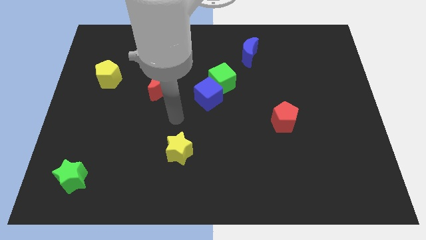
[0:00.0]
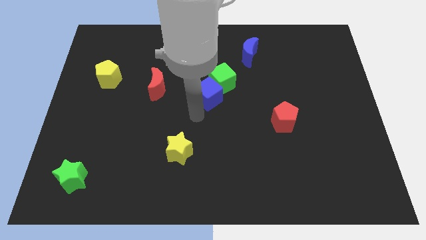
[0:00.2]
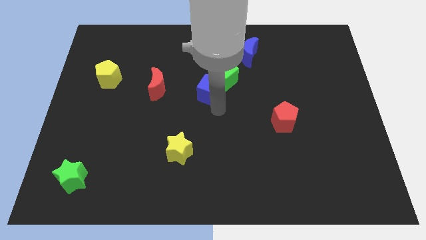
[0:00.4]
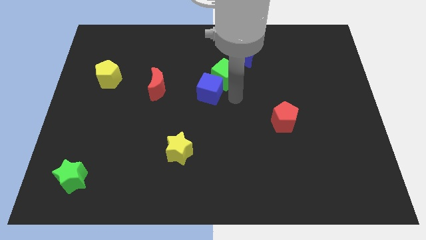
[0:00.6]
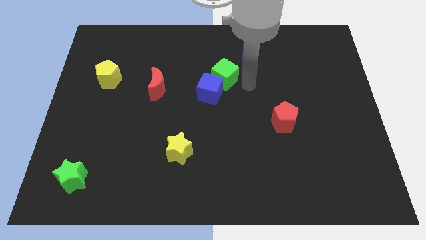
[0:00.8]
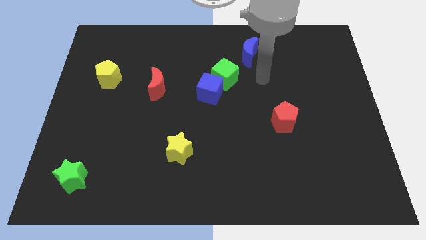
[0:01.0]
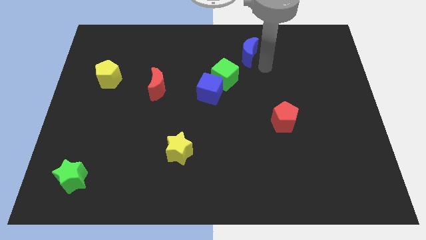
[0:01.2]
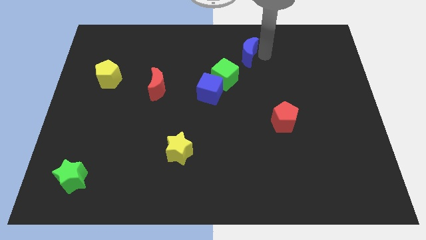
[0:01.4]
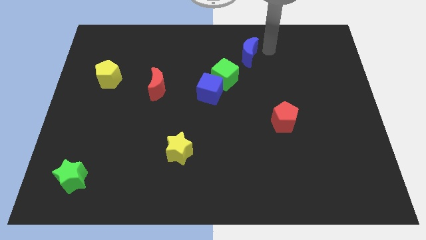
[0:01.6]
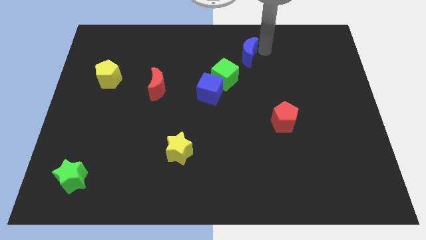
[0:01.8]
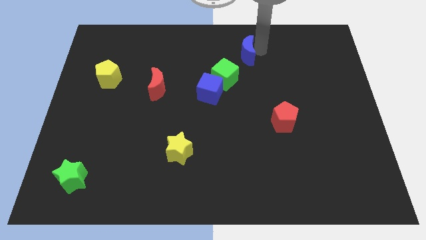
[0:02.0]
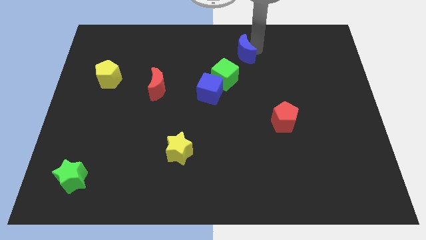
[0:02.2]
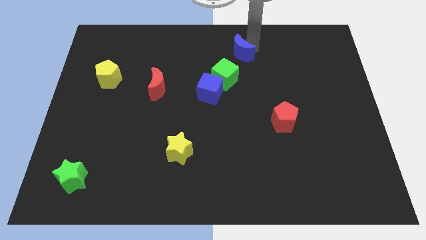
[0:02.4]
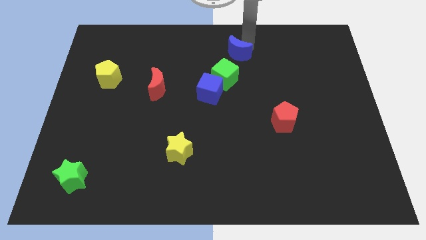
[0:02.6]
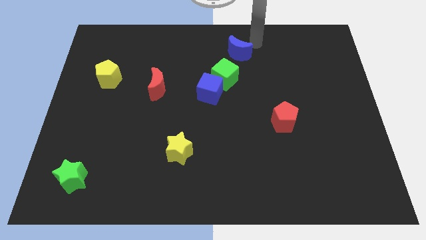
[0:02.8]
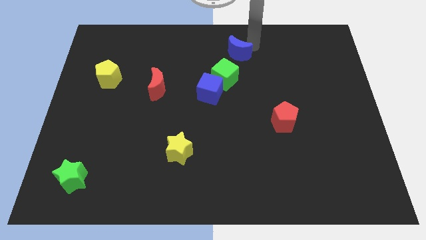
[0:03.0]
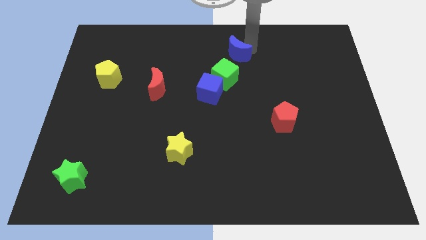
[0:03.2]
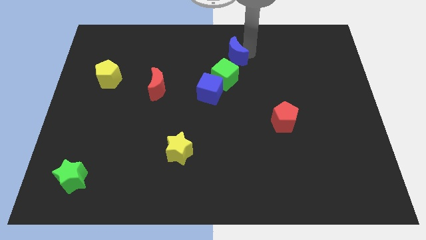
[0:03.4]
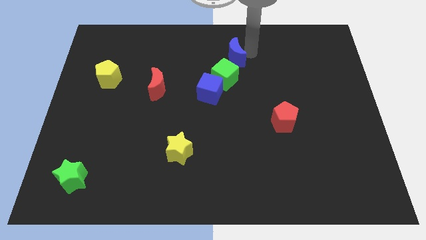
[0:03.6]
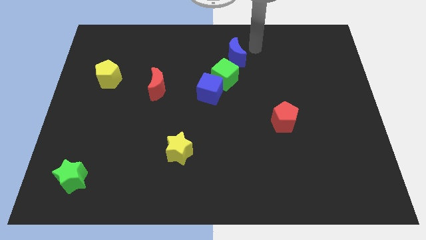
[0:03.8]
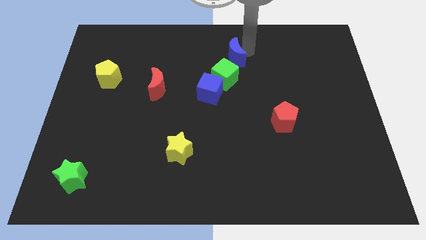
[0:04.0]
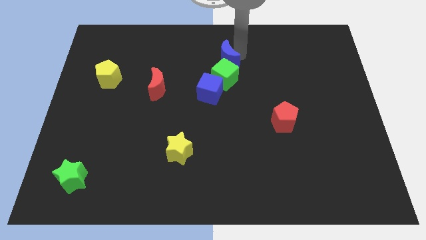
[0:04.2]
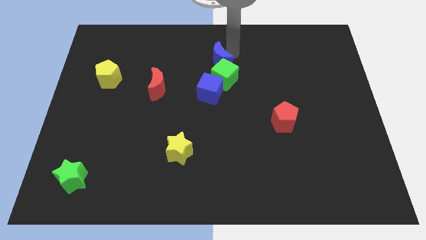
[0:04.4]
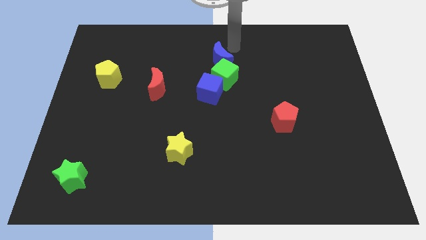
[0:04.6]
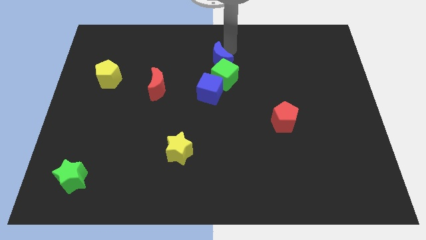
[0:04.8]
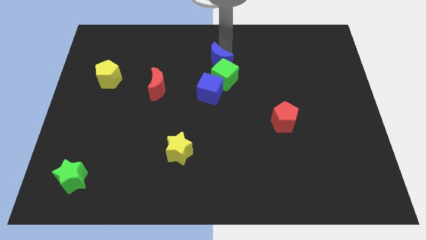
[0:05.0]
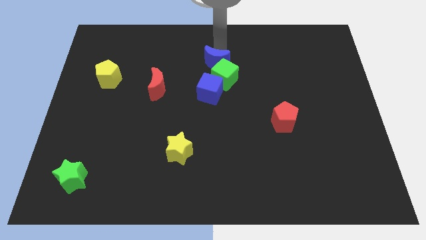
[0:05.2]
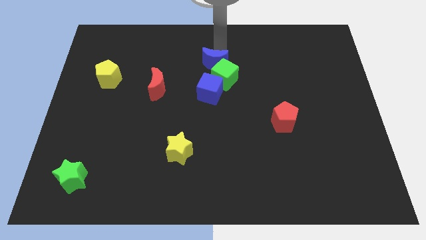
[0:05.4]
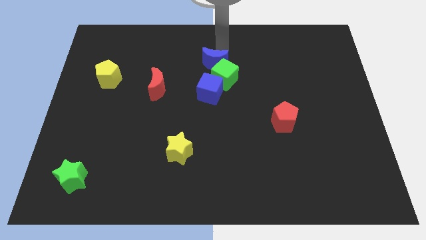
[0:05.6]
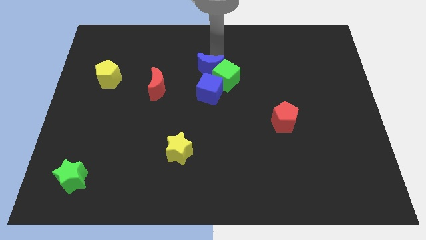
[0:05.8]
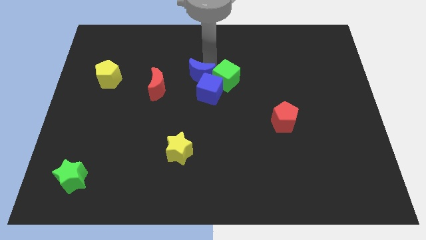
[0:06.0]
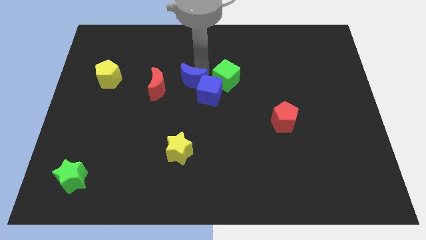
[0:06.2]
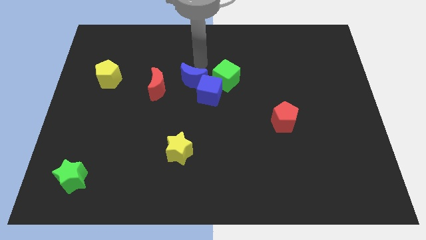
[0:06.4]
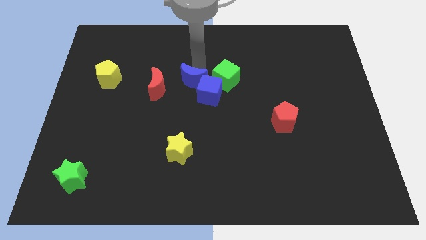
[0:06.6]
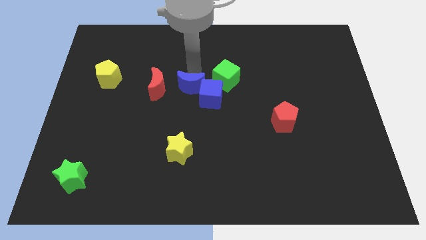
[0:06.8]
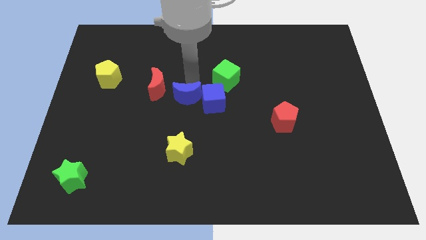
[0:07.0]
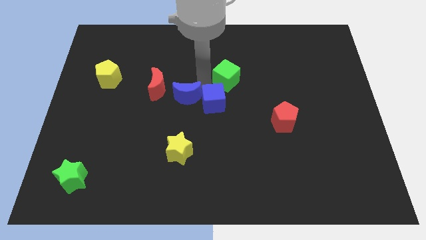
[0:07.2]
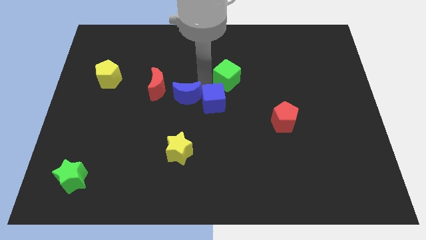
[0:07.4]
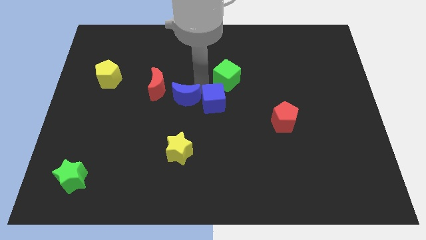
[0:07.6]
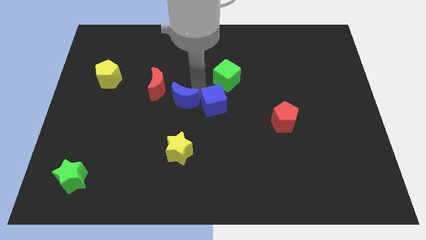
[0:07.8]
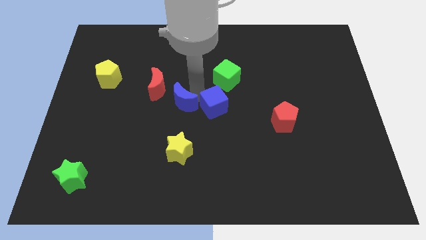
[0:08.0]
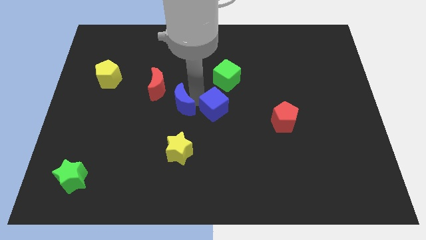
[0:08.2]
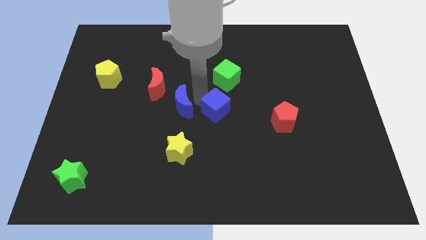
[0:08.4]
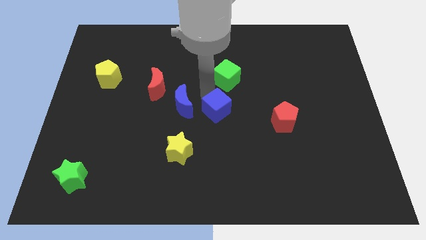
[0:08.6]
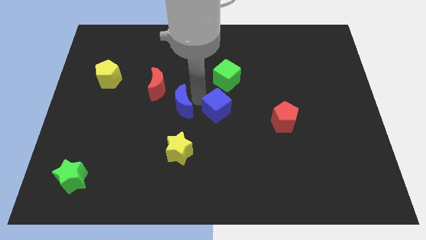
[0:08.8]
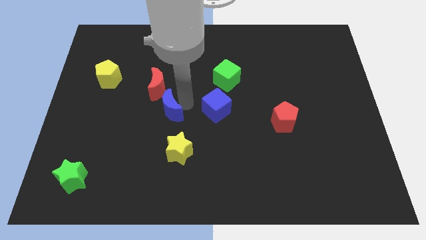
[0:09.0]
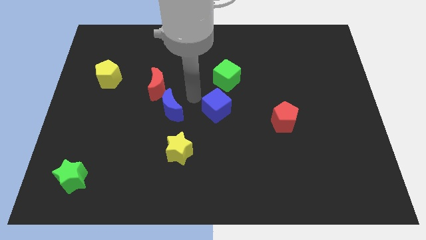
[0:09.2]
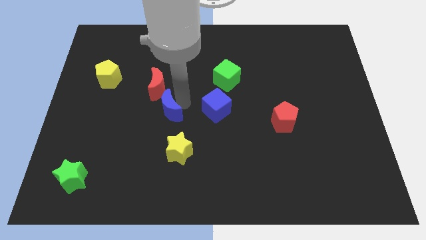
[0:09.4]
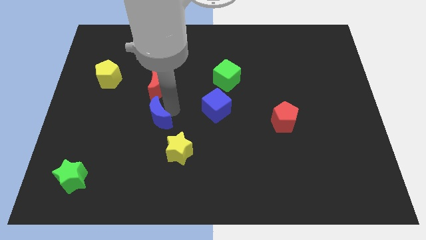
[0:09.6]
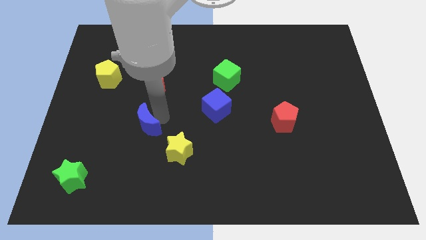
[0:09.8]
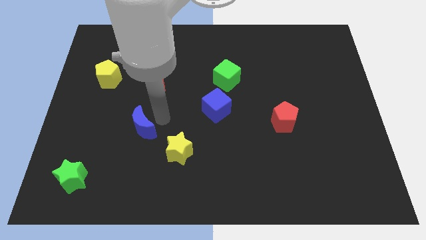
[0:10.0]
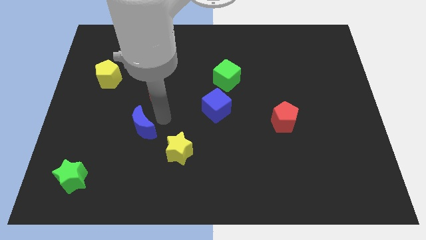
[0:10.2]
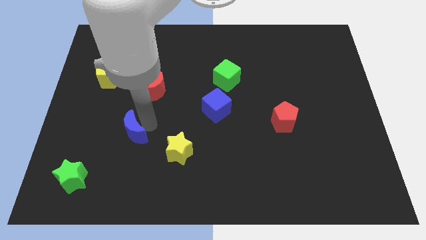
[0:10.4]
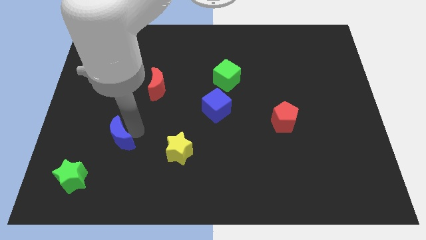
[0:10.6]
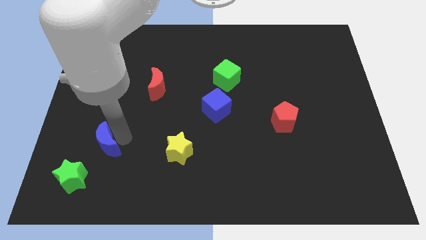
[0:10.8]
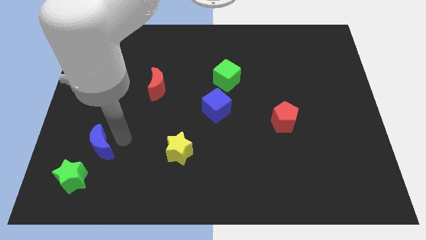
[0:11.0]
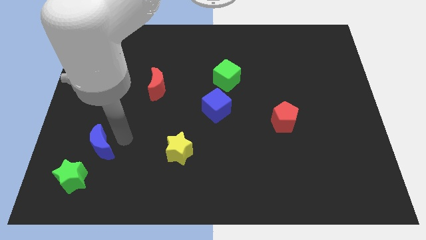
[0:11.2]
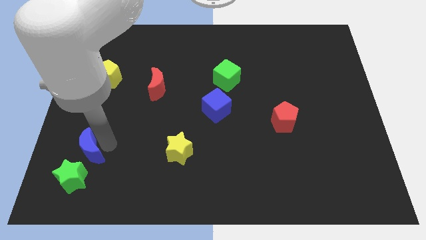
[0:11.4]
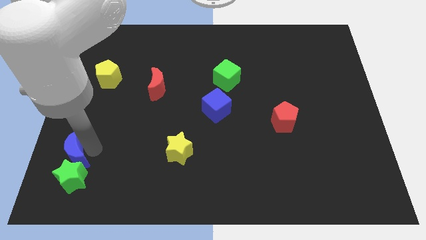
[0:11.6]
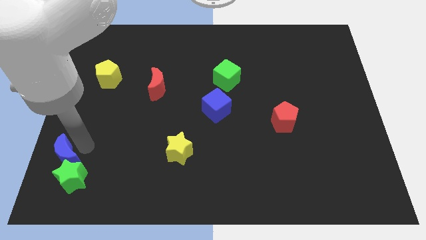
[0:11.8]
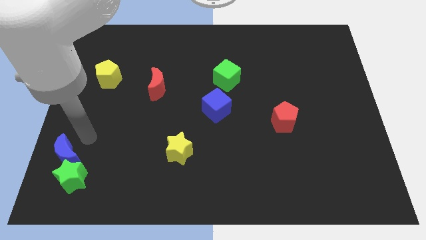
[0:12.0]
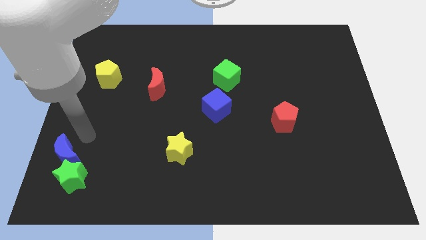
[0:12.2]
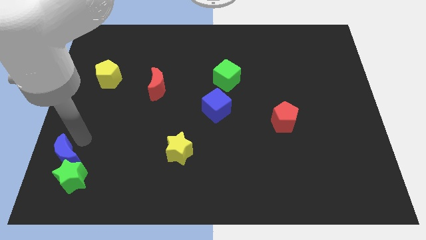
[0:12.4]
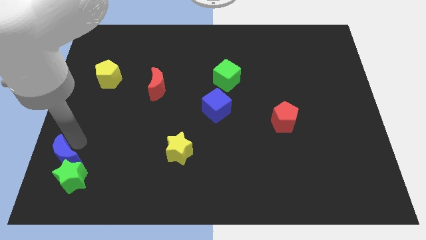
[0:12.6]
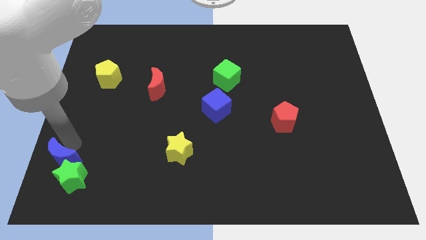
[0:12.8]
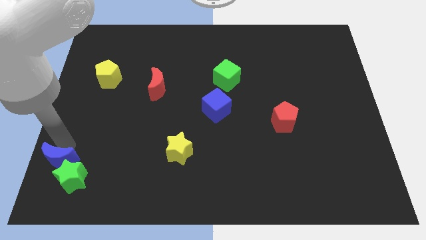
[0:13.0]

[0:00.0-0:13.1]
put the blue moon to the bottom left of the board
